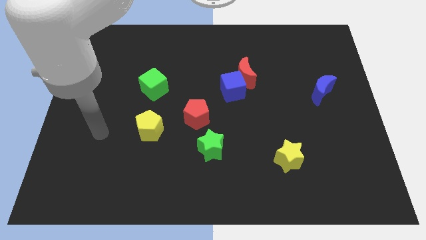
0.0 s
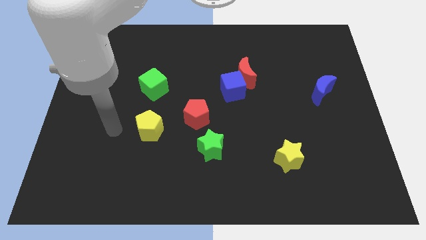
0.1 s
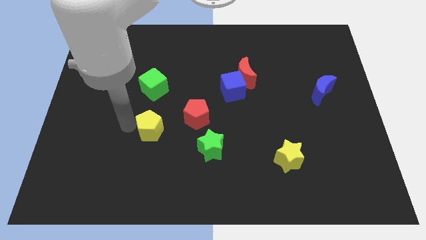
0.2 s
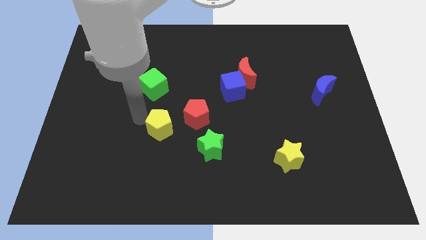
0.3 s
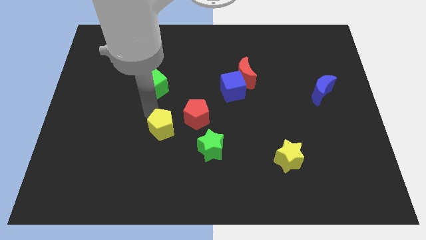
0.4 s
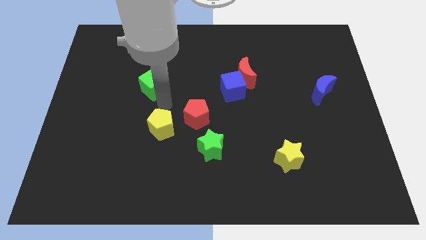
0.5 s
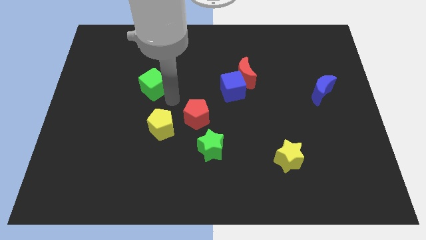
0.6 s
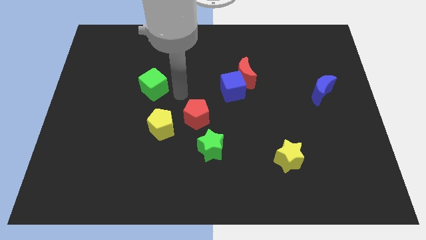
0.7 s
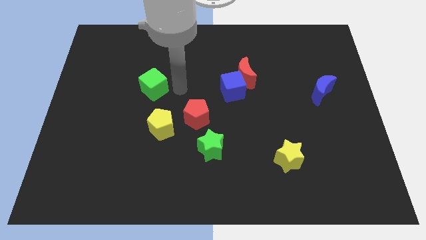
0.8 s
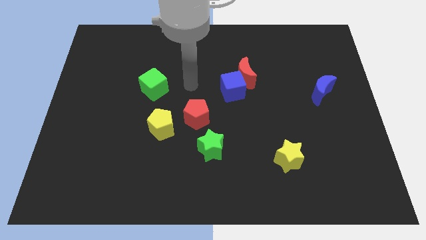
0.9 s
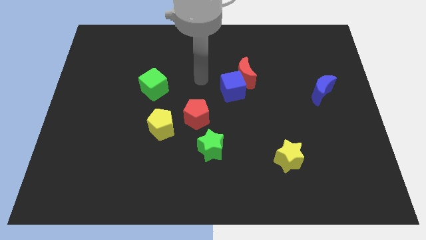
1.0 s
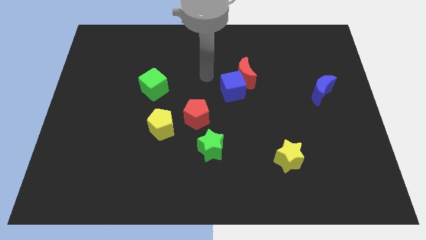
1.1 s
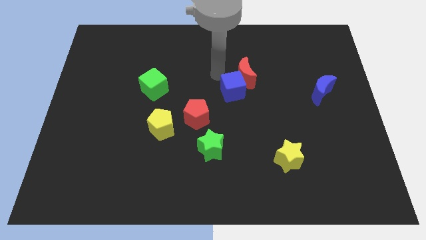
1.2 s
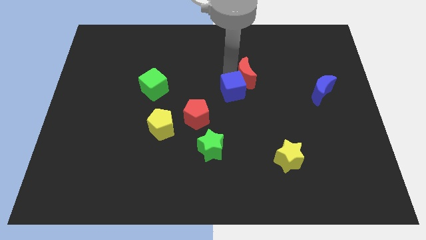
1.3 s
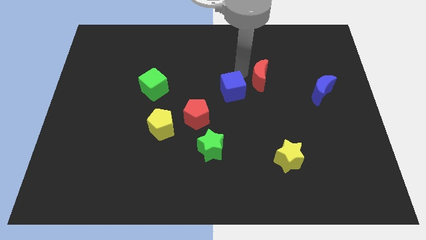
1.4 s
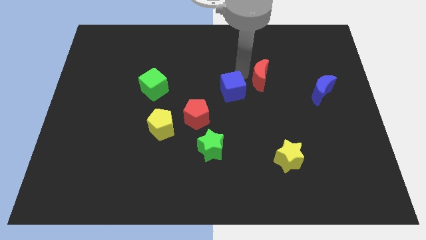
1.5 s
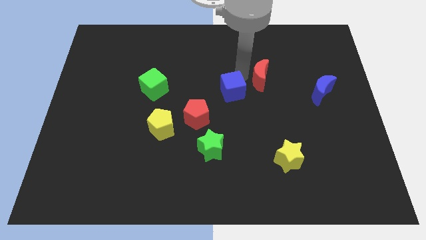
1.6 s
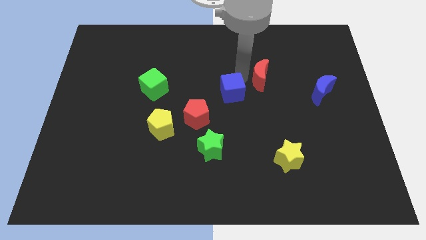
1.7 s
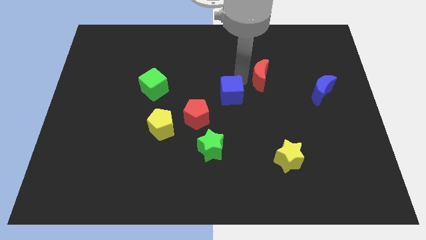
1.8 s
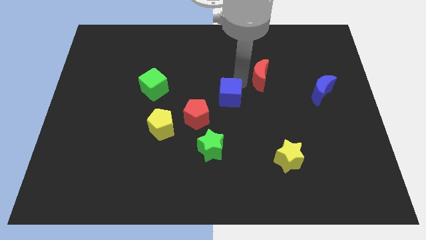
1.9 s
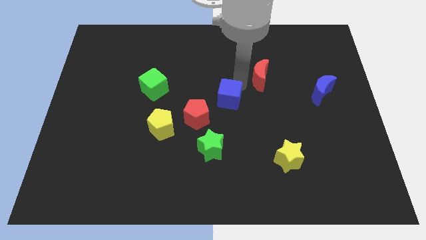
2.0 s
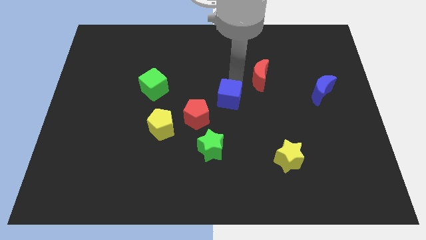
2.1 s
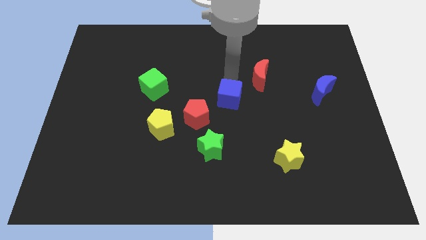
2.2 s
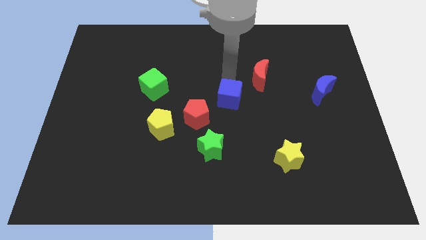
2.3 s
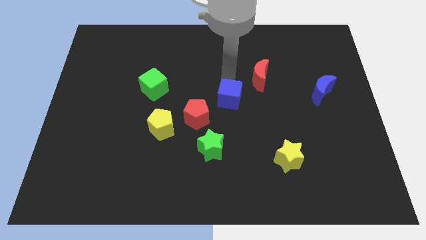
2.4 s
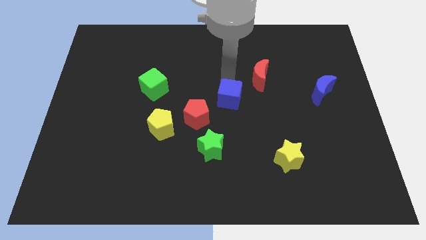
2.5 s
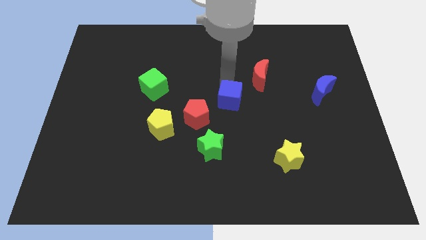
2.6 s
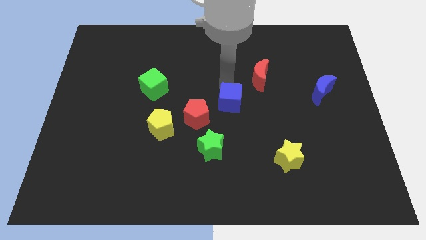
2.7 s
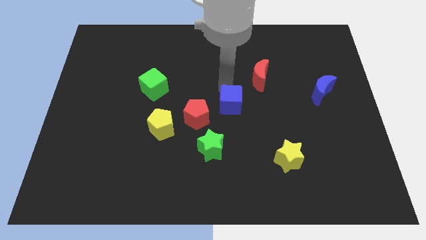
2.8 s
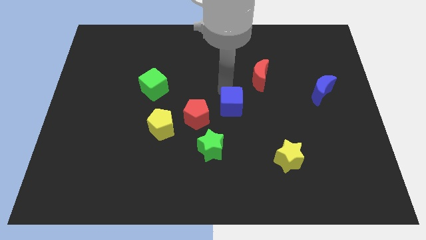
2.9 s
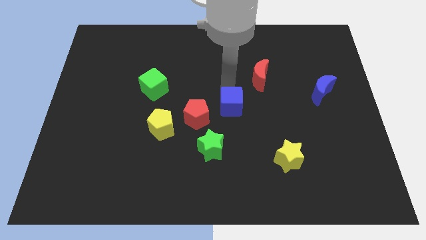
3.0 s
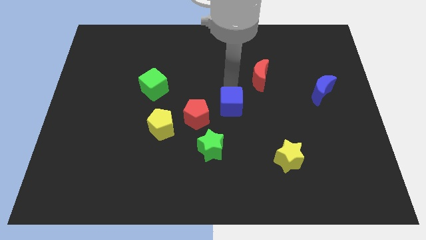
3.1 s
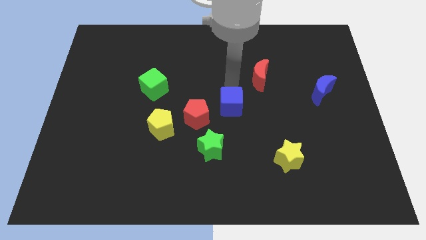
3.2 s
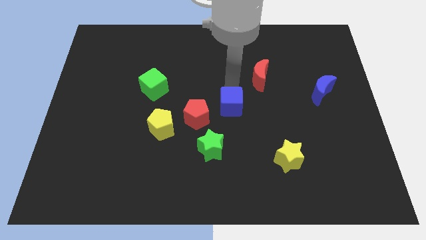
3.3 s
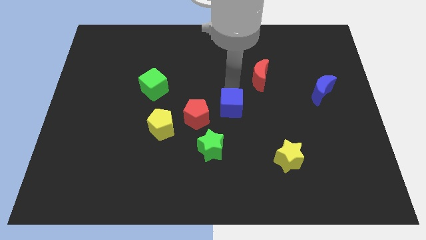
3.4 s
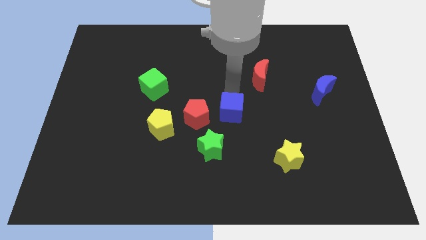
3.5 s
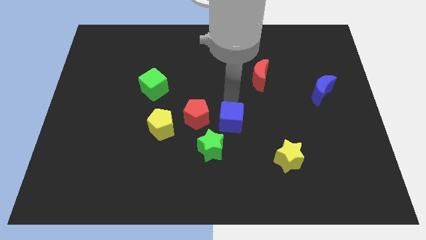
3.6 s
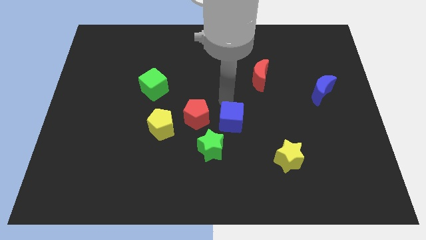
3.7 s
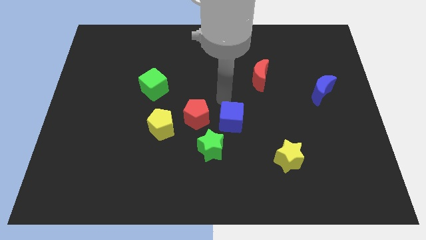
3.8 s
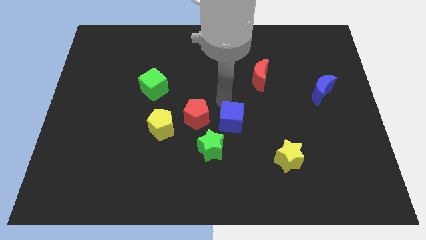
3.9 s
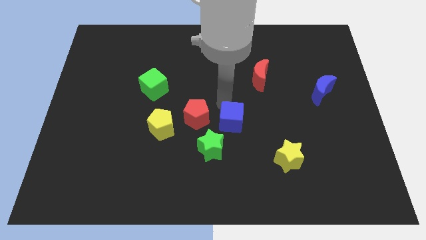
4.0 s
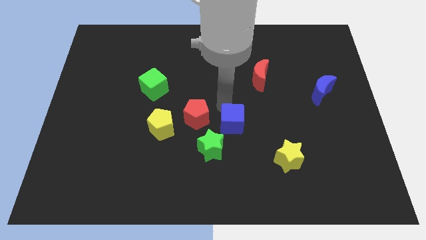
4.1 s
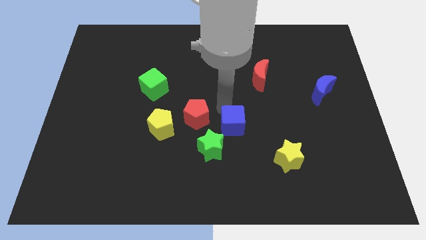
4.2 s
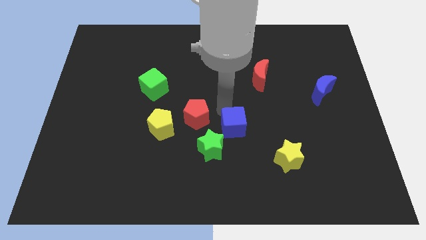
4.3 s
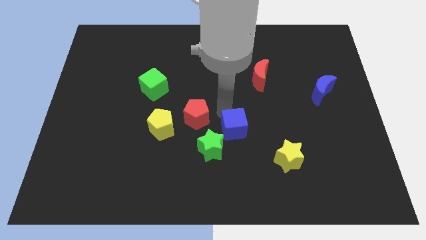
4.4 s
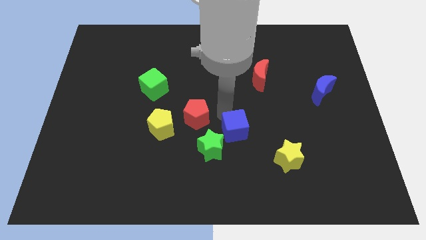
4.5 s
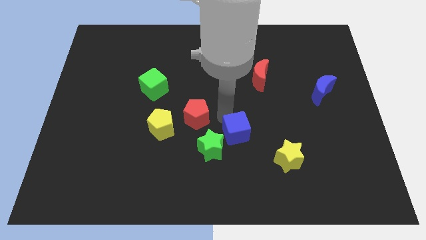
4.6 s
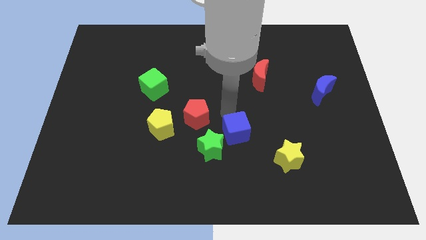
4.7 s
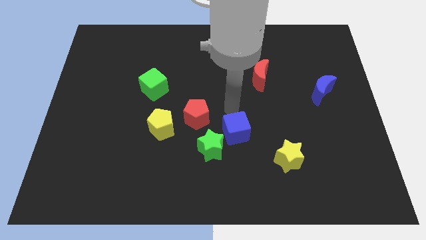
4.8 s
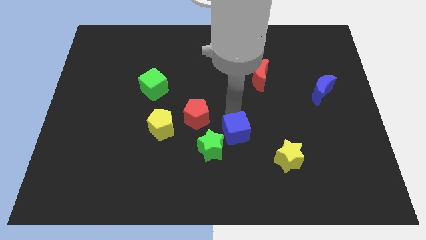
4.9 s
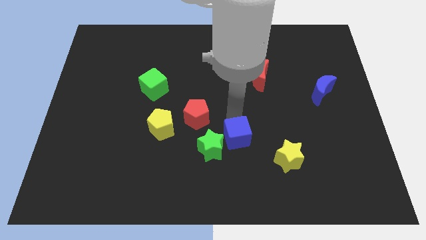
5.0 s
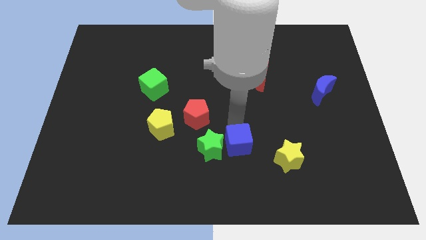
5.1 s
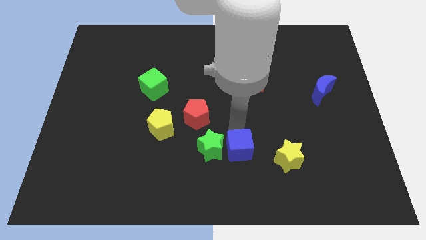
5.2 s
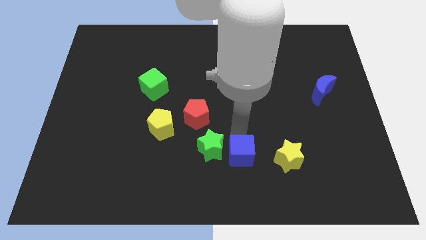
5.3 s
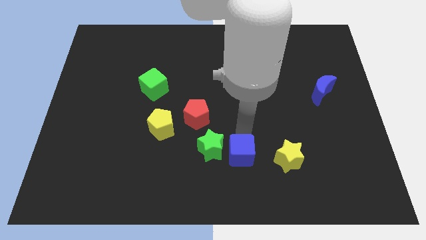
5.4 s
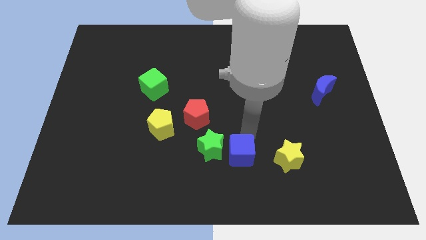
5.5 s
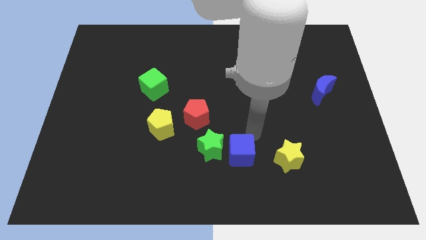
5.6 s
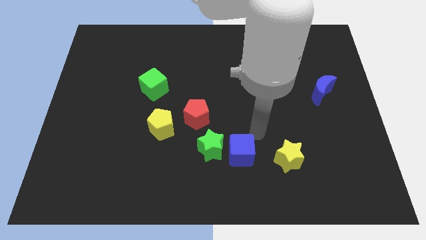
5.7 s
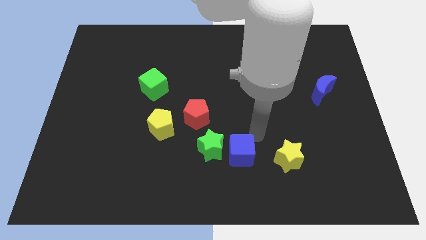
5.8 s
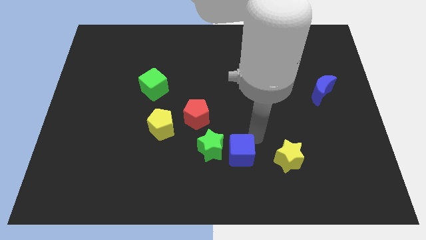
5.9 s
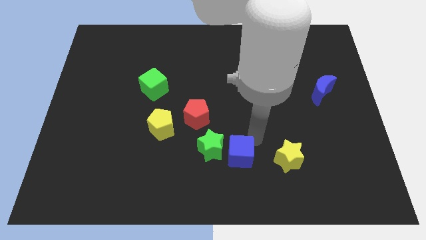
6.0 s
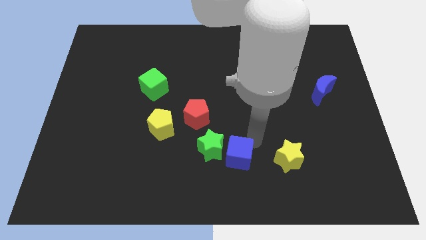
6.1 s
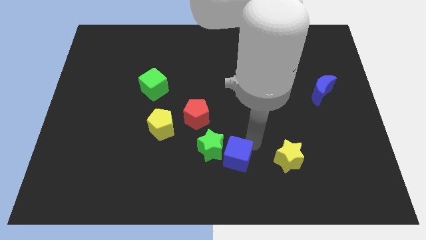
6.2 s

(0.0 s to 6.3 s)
put the blue cube to the bottom side
